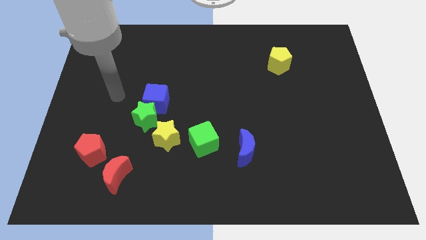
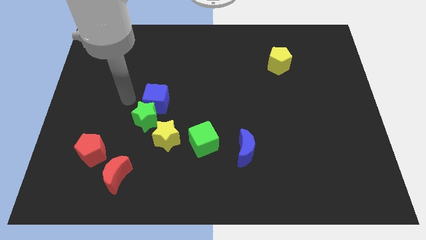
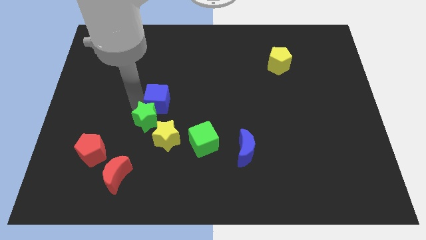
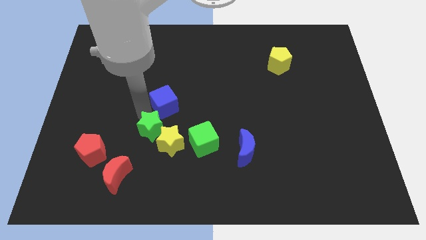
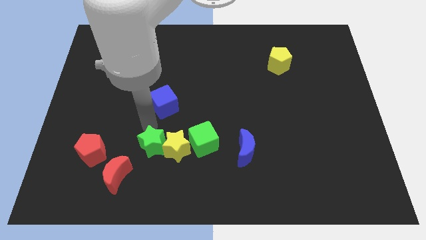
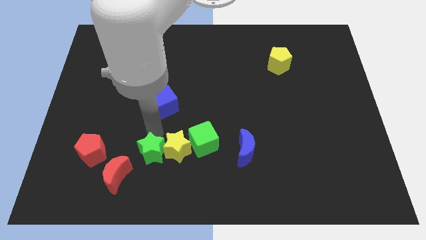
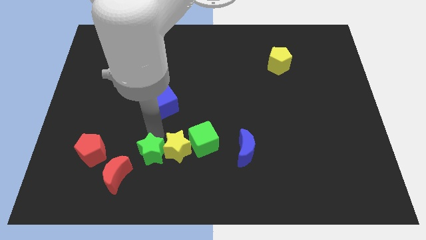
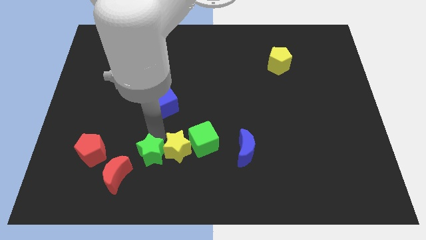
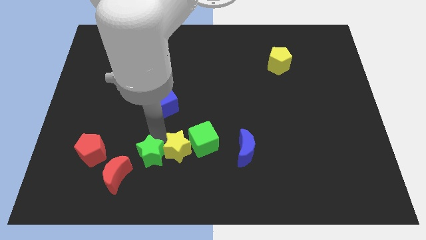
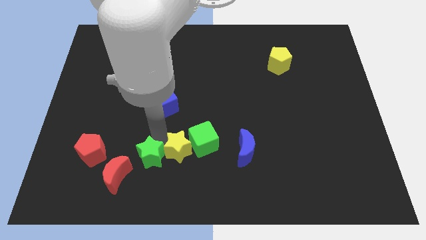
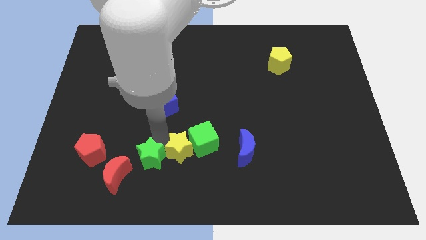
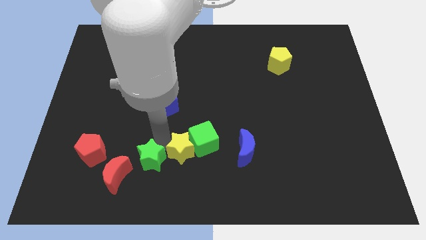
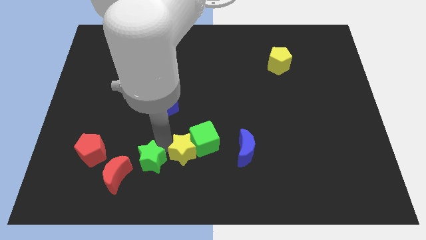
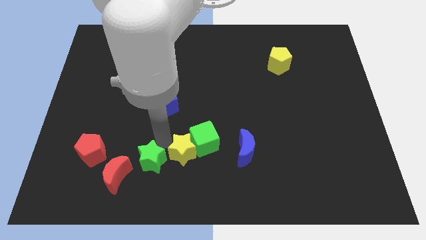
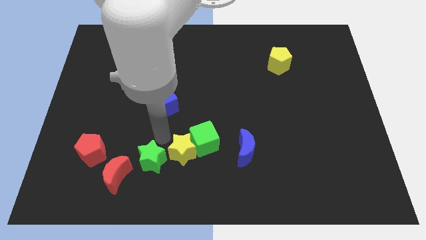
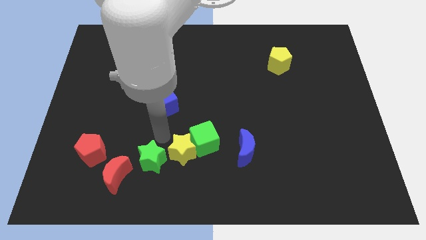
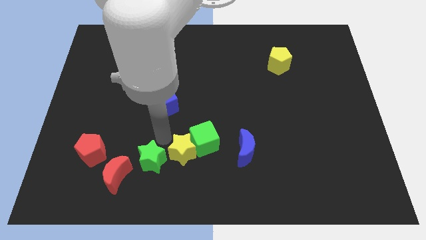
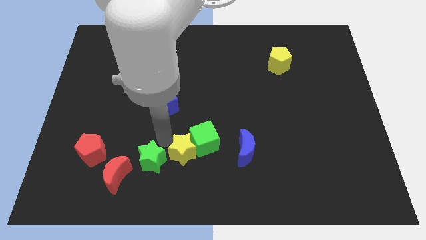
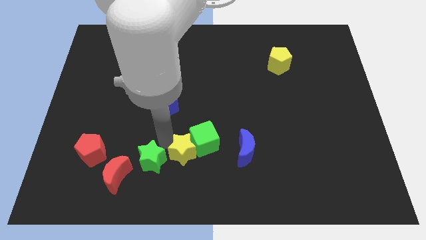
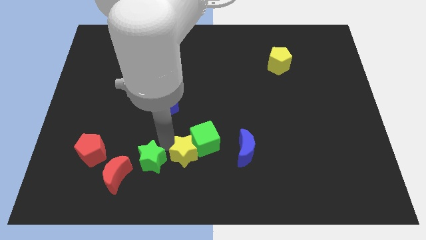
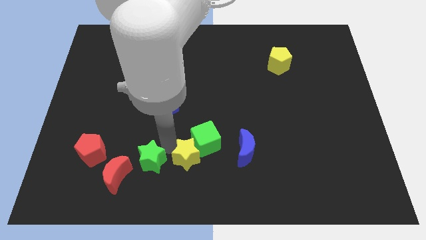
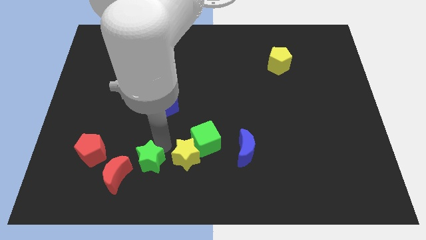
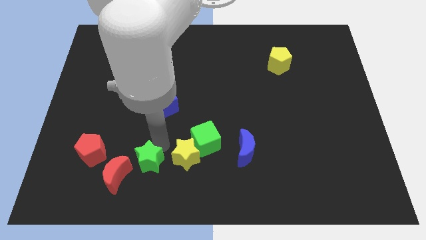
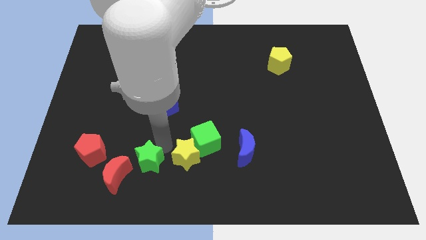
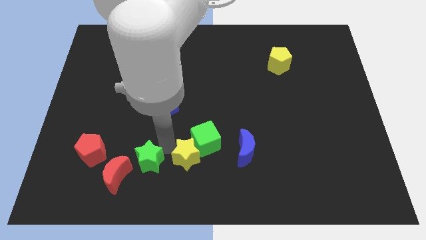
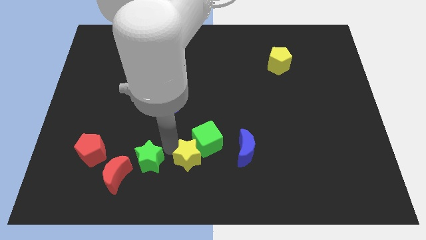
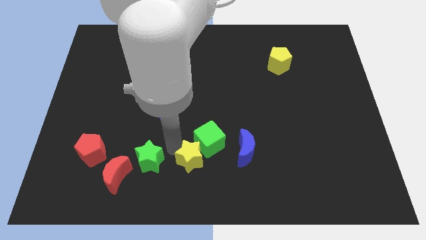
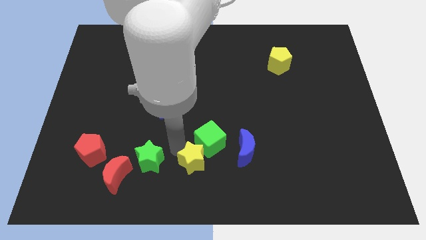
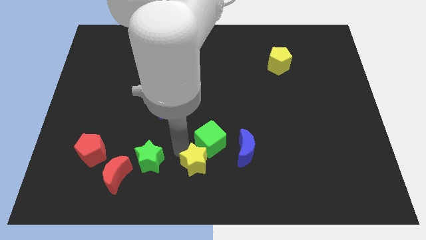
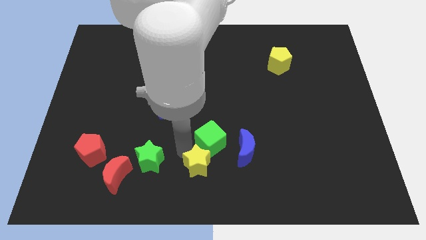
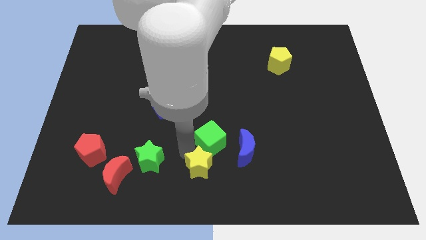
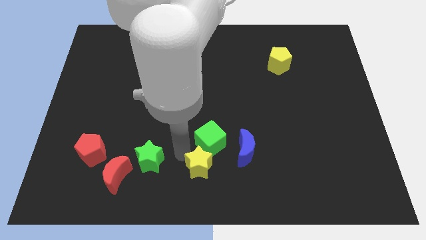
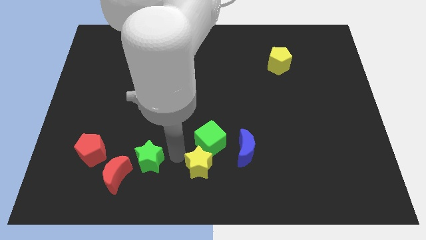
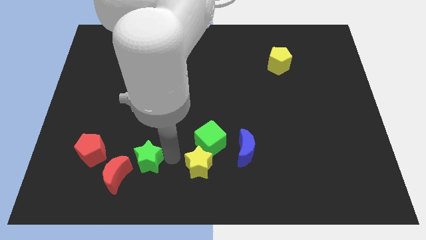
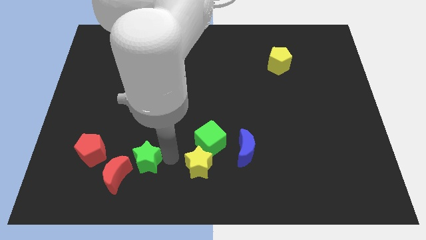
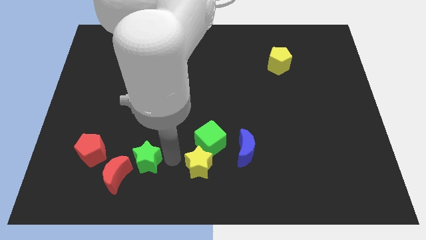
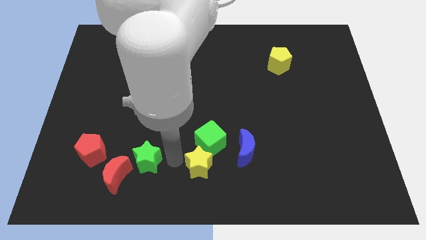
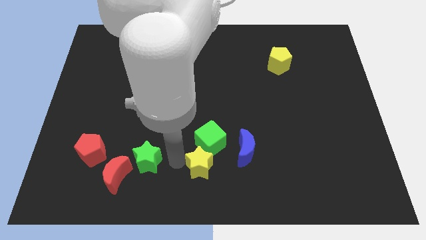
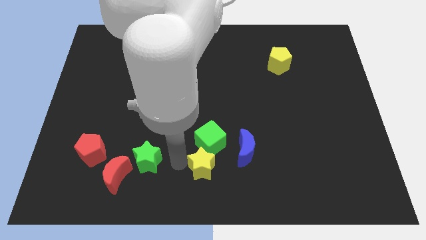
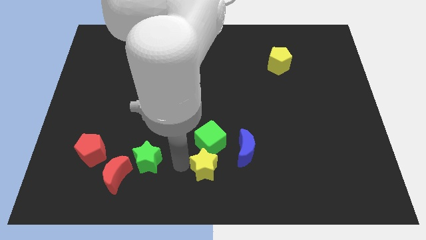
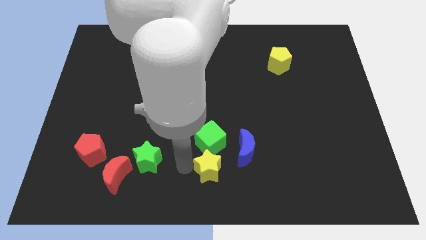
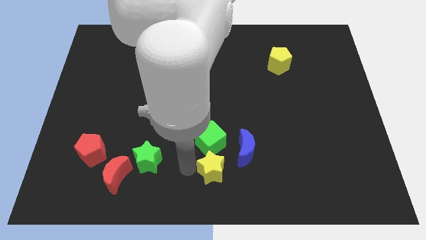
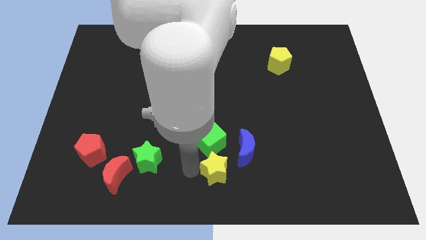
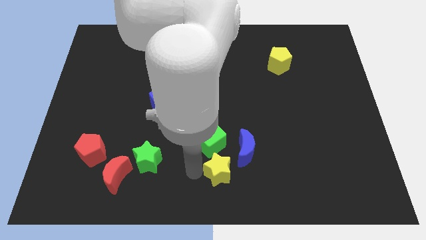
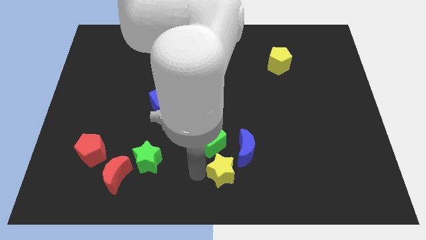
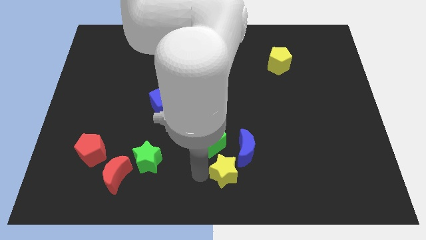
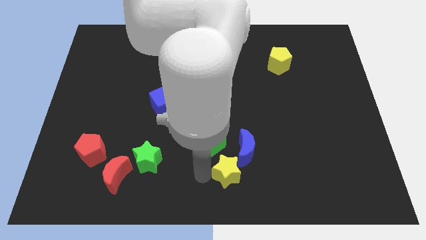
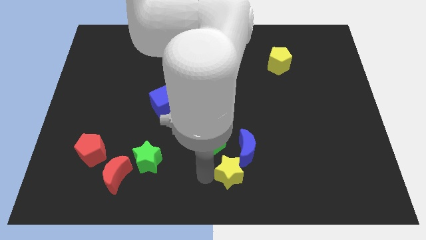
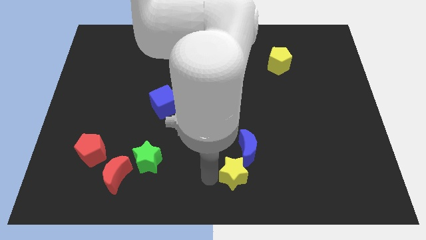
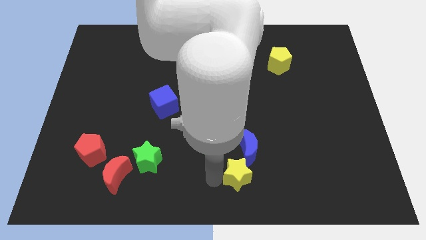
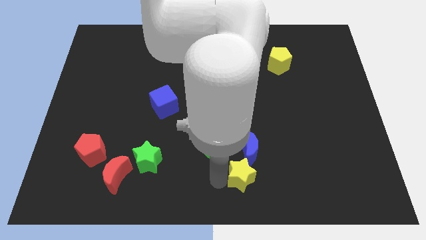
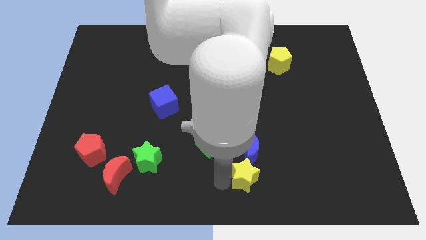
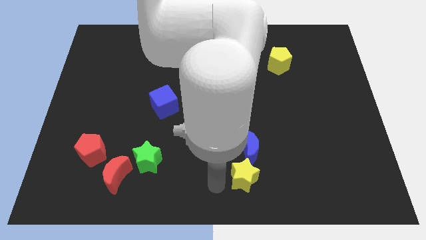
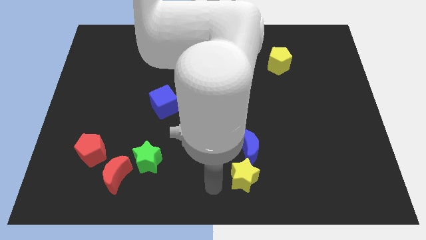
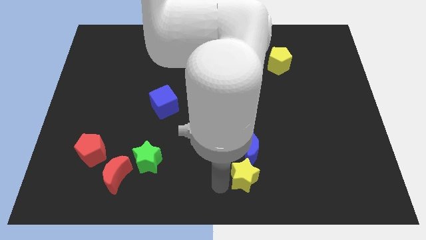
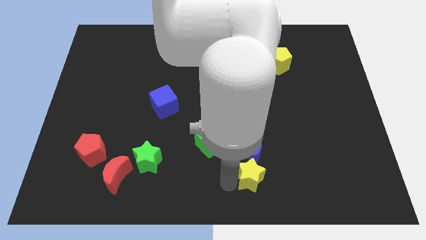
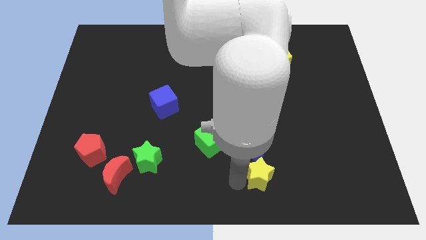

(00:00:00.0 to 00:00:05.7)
push the yellow star to the bottom right side of the blue moon

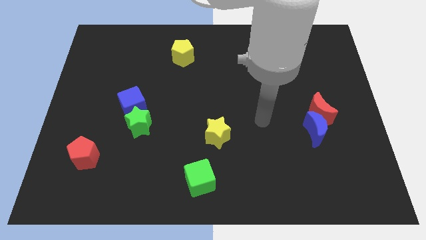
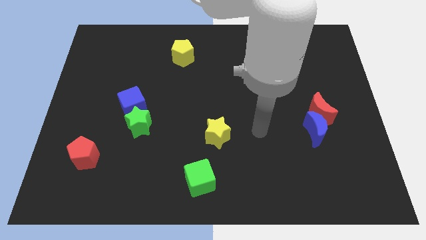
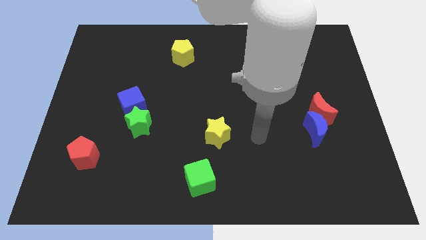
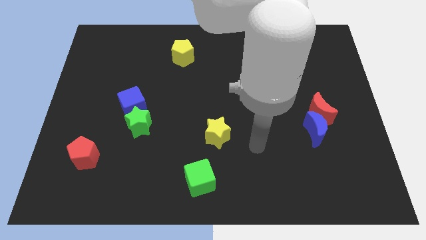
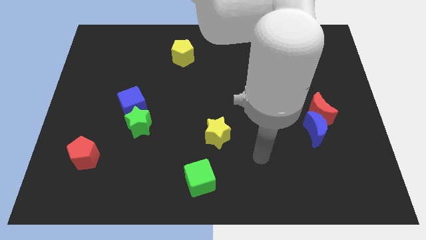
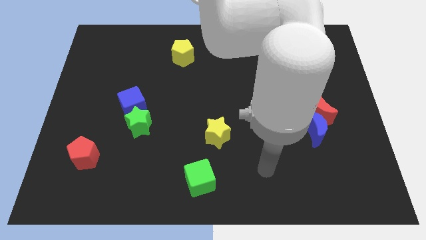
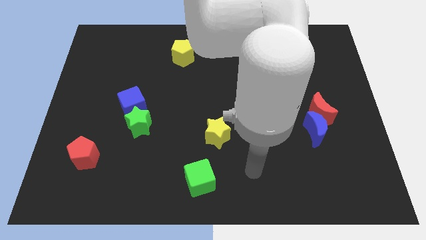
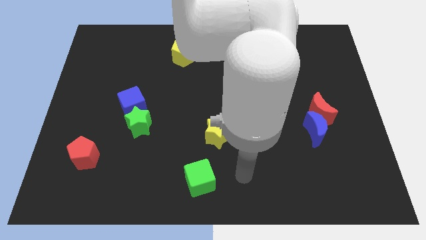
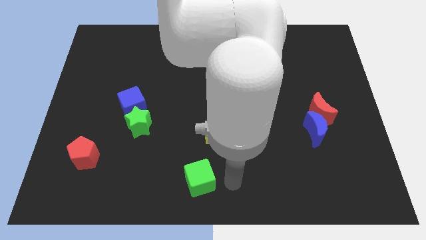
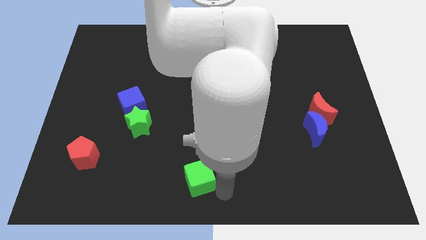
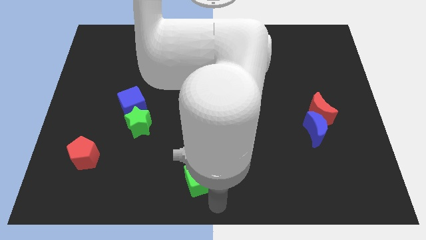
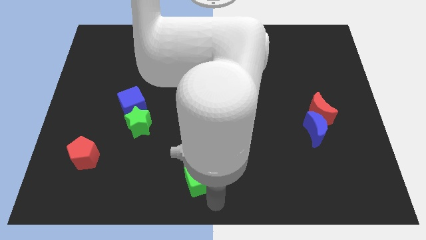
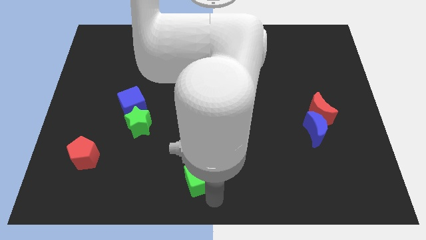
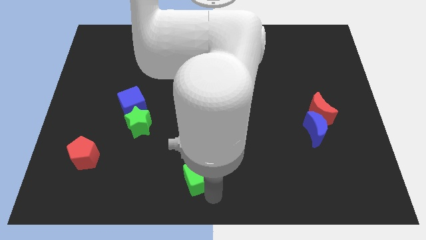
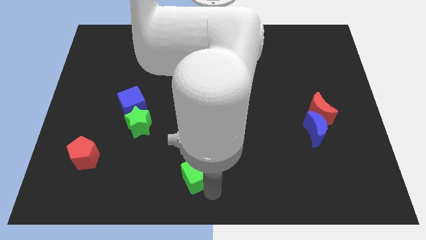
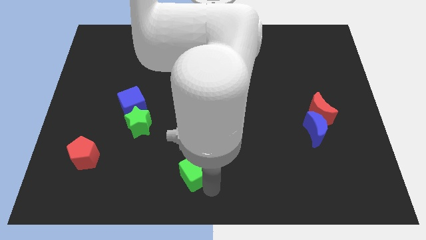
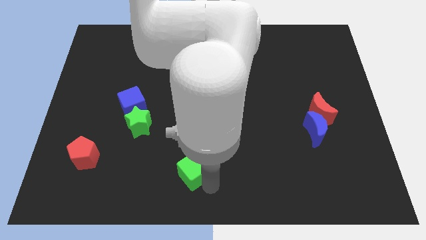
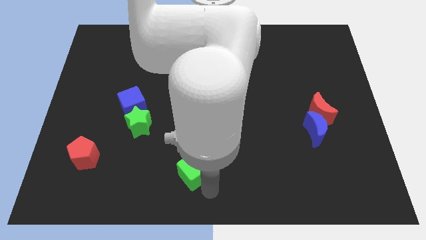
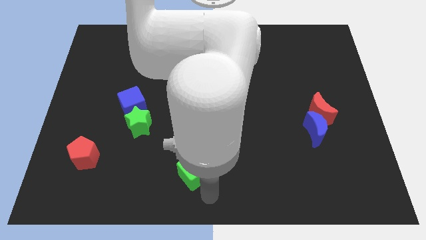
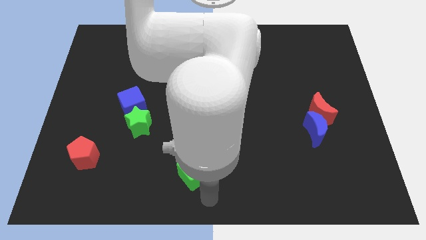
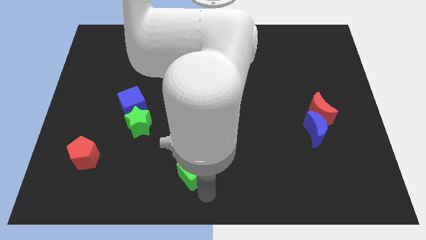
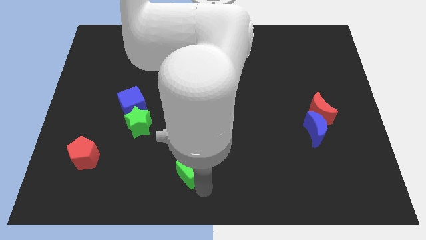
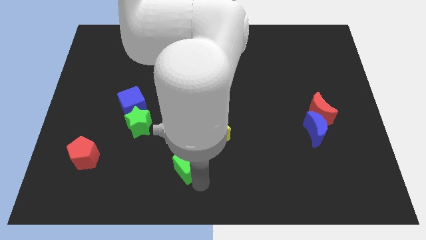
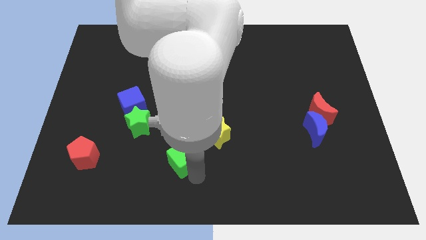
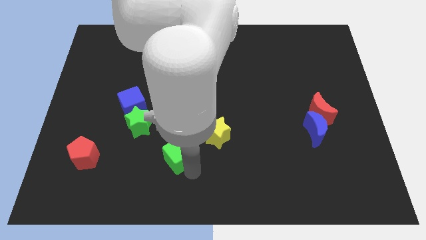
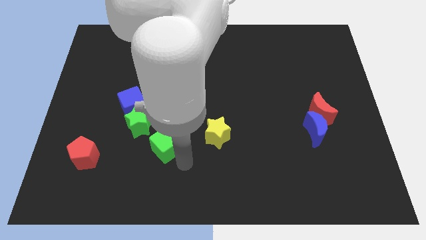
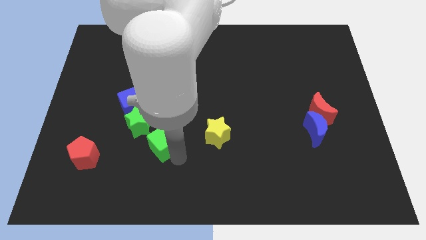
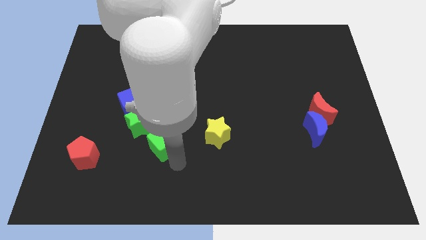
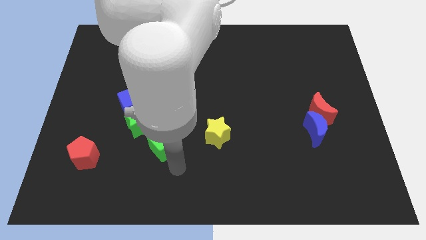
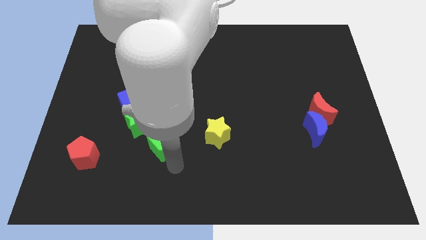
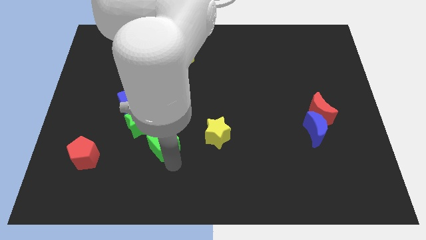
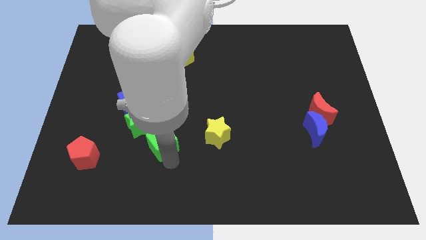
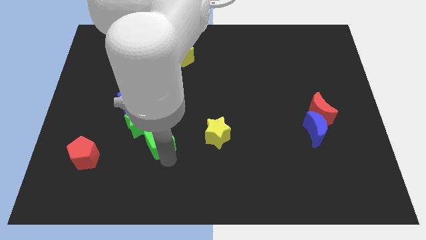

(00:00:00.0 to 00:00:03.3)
push the green cube to the bottom right side of the blue cube
